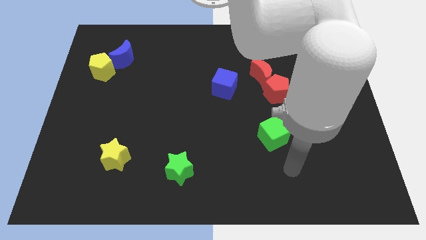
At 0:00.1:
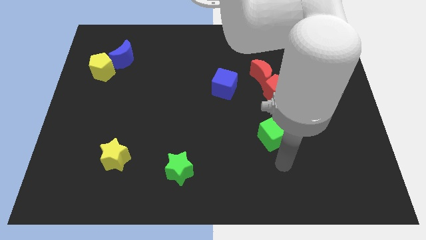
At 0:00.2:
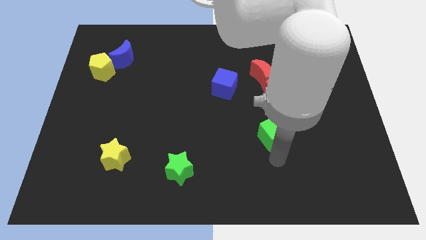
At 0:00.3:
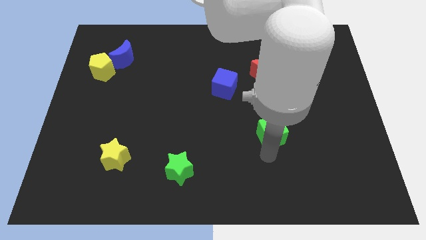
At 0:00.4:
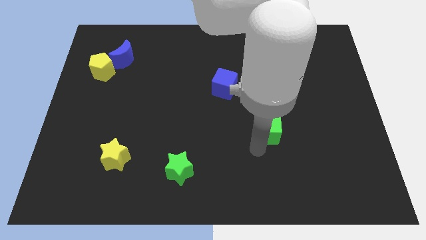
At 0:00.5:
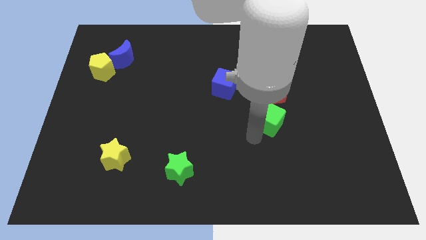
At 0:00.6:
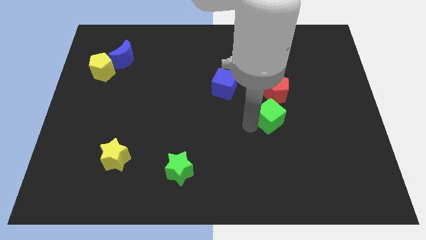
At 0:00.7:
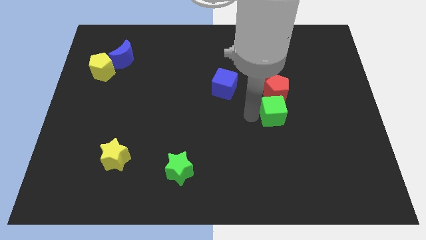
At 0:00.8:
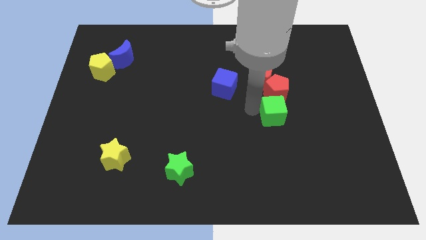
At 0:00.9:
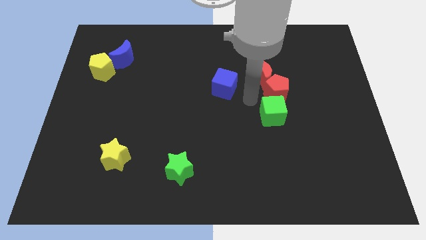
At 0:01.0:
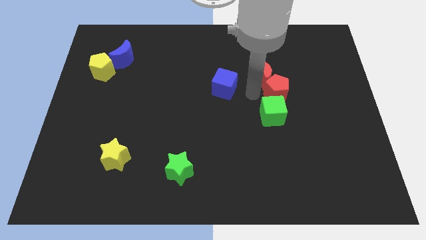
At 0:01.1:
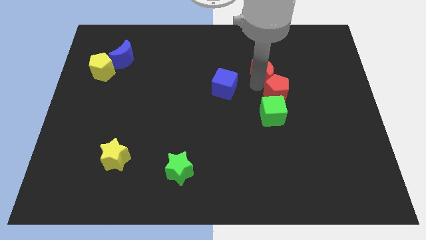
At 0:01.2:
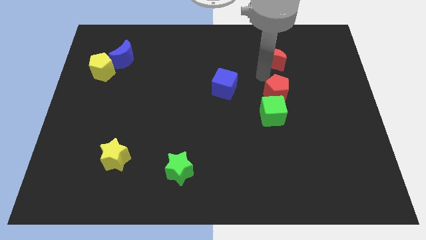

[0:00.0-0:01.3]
move the red pentagon away from the red moon

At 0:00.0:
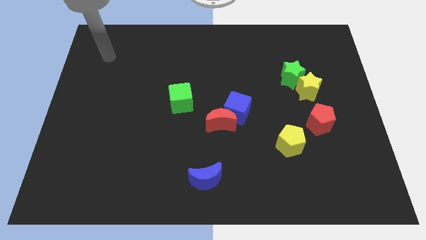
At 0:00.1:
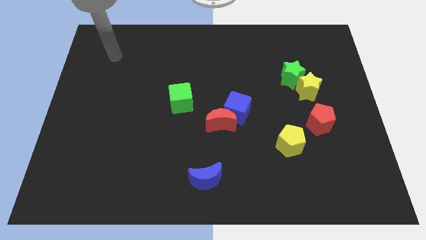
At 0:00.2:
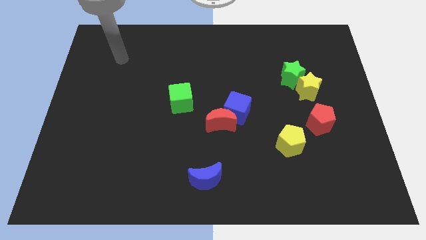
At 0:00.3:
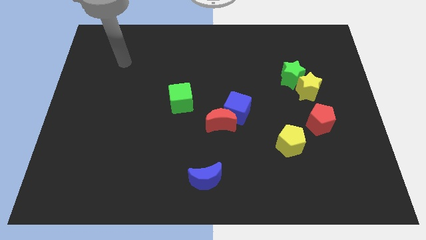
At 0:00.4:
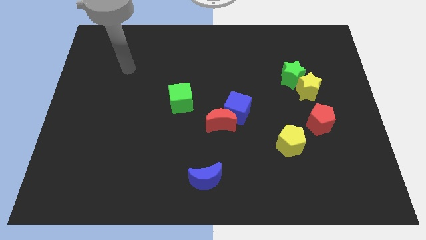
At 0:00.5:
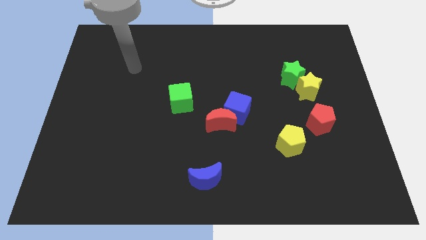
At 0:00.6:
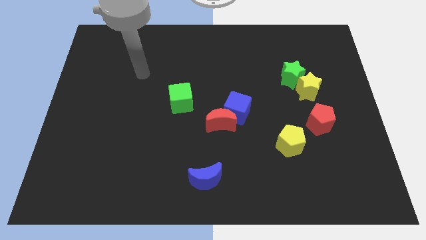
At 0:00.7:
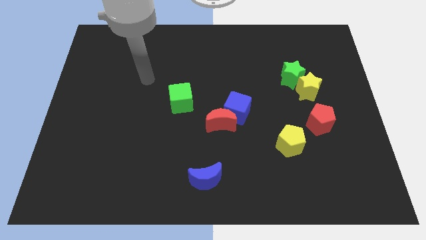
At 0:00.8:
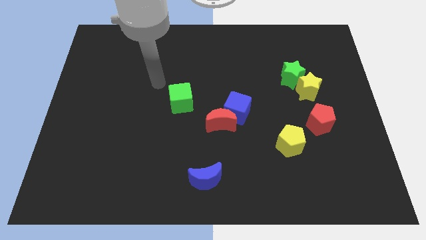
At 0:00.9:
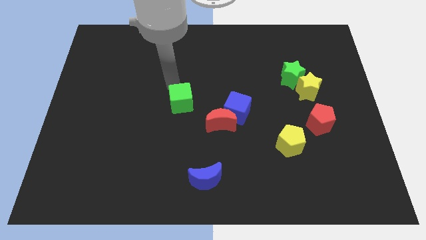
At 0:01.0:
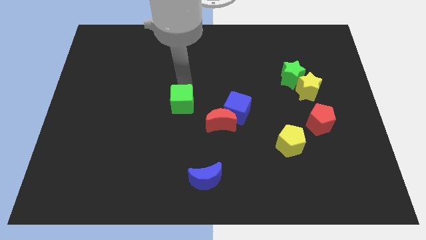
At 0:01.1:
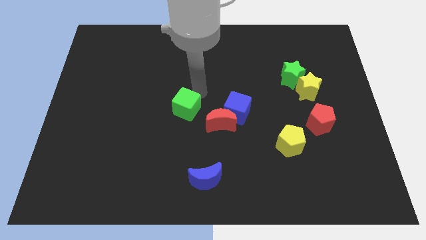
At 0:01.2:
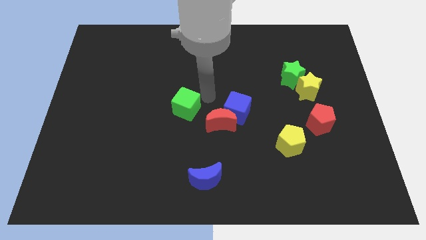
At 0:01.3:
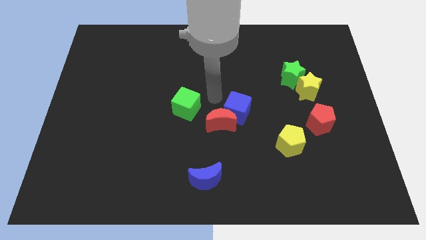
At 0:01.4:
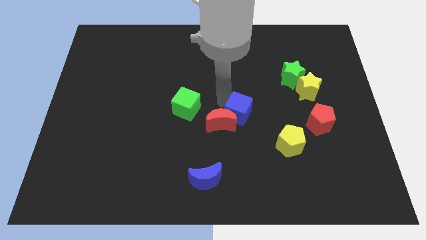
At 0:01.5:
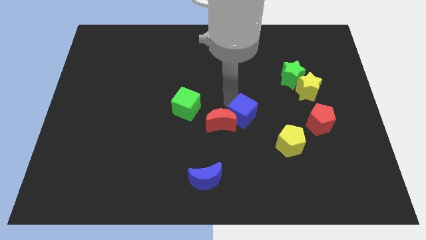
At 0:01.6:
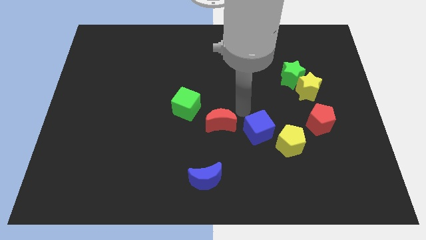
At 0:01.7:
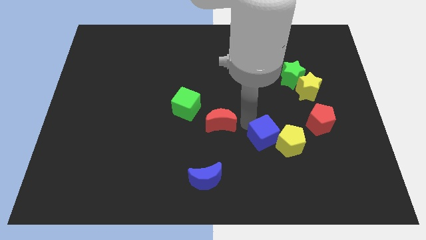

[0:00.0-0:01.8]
move the red moon away from the blue cube

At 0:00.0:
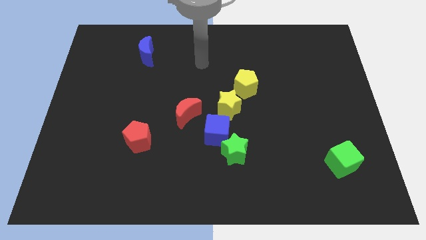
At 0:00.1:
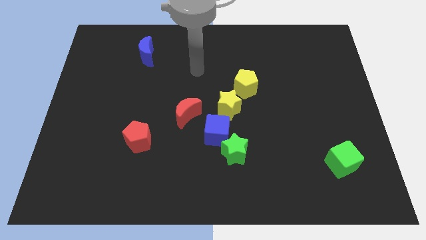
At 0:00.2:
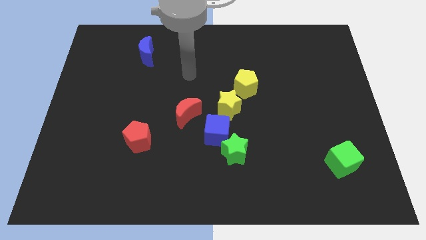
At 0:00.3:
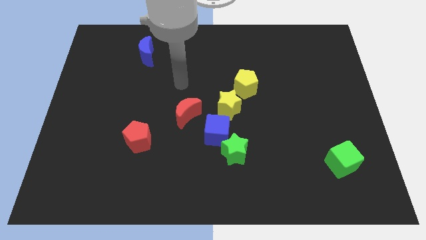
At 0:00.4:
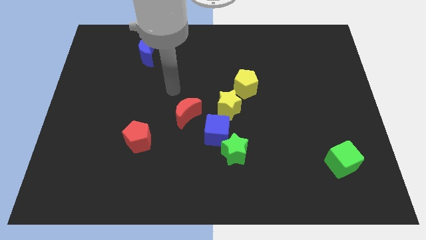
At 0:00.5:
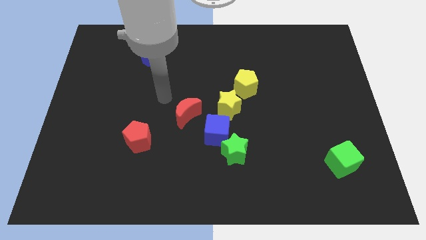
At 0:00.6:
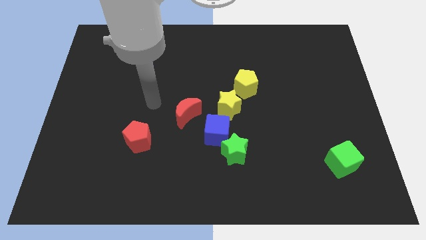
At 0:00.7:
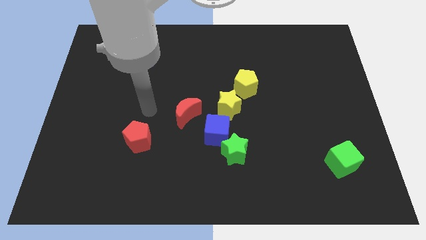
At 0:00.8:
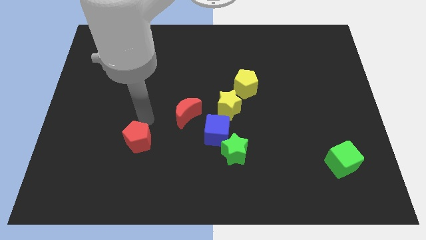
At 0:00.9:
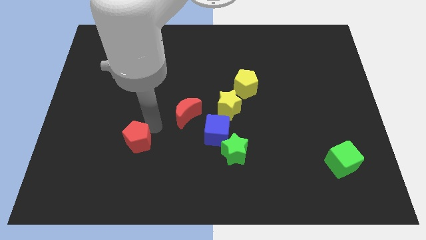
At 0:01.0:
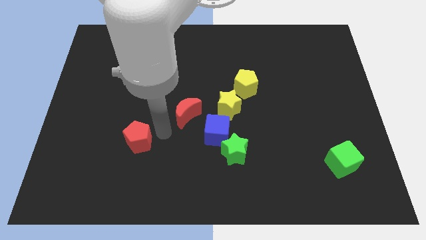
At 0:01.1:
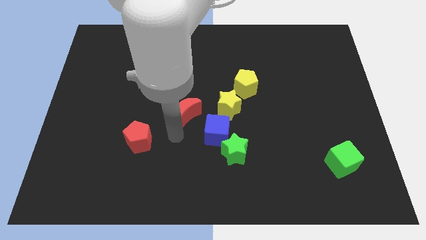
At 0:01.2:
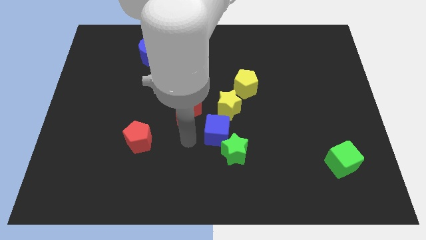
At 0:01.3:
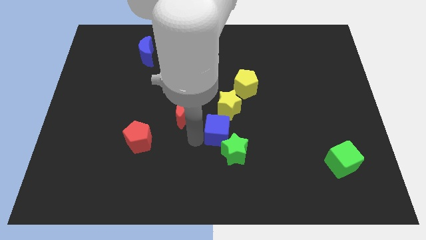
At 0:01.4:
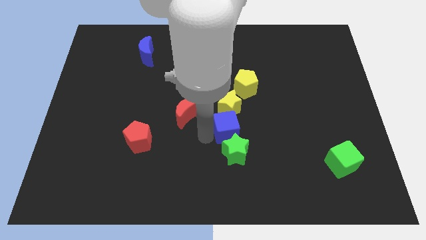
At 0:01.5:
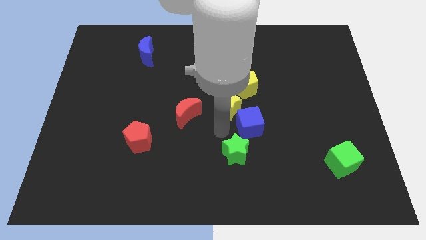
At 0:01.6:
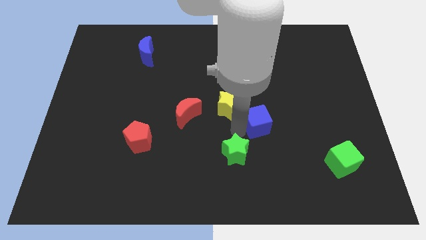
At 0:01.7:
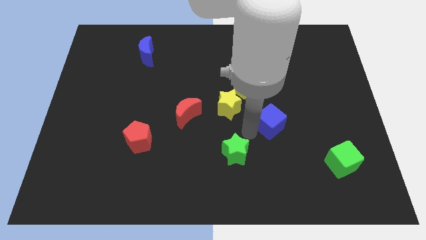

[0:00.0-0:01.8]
separate the green star from the blue cube

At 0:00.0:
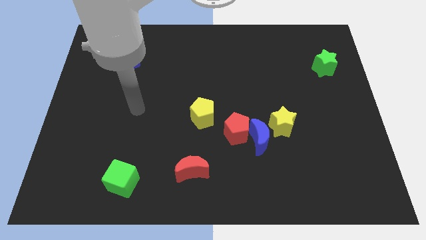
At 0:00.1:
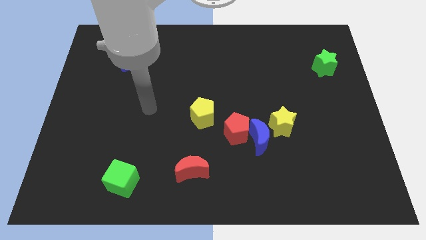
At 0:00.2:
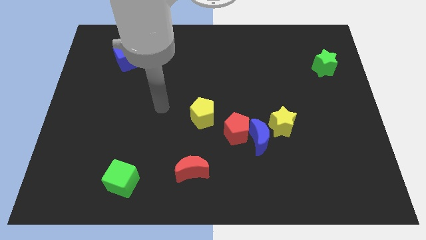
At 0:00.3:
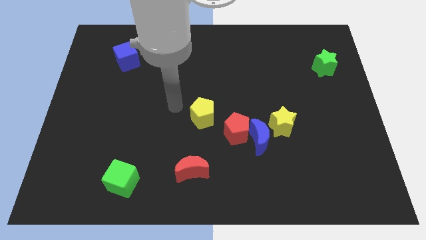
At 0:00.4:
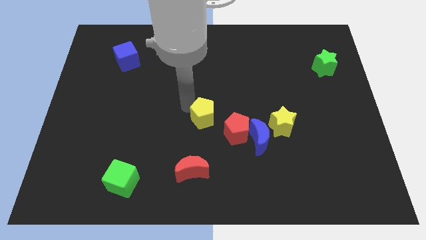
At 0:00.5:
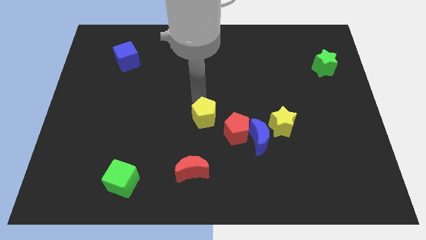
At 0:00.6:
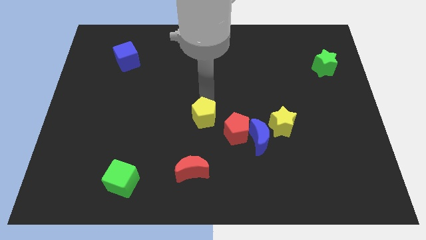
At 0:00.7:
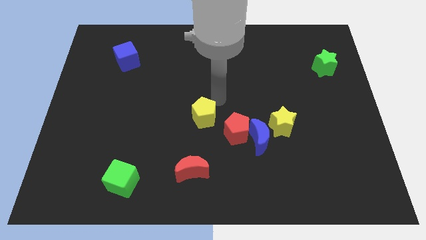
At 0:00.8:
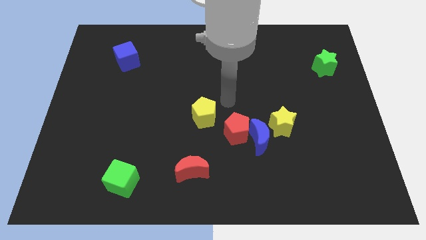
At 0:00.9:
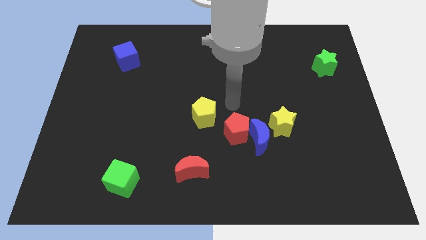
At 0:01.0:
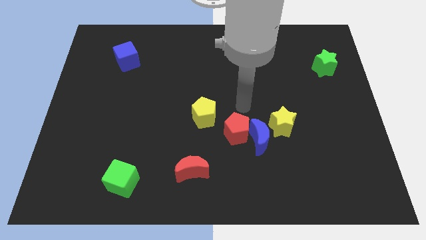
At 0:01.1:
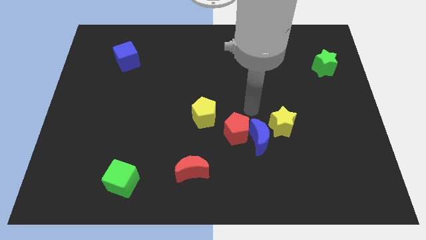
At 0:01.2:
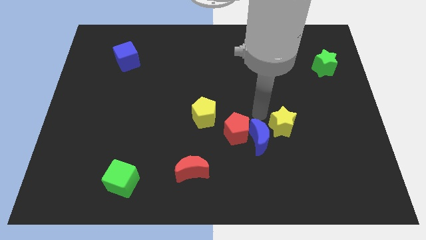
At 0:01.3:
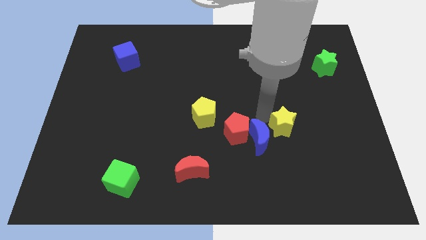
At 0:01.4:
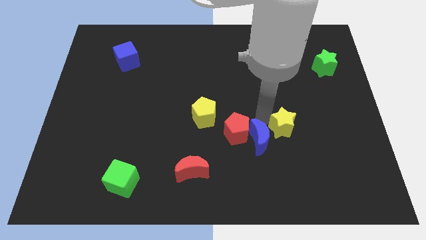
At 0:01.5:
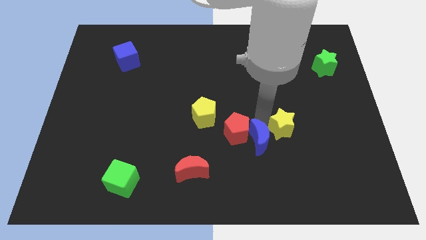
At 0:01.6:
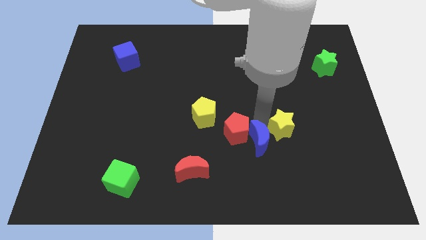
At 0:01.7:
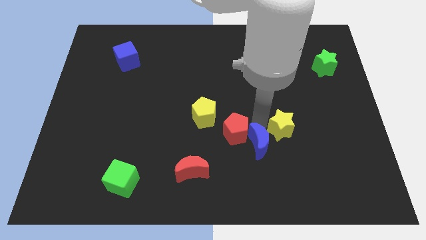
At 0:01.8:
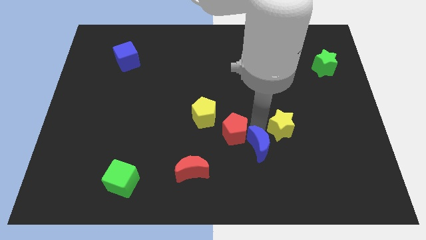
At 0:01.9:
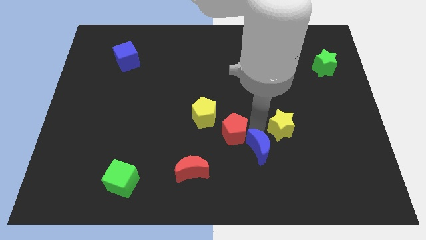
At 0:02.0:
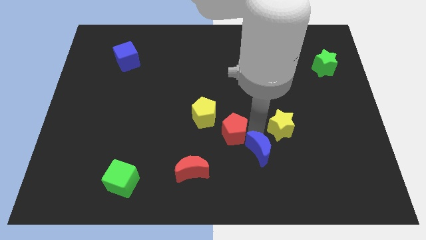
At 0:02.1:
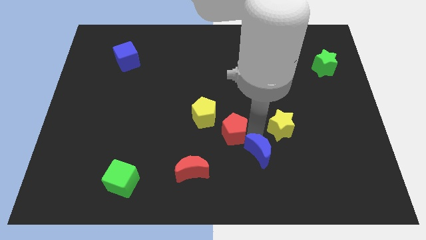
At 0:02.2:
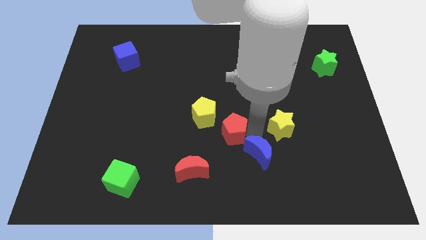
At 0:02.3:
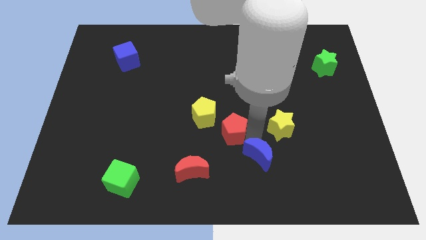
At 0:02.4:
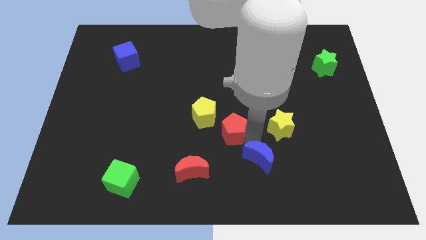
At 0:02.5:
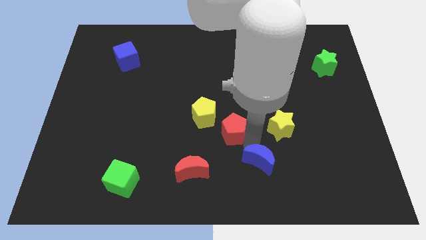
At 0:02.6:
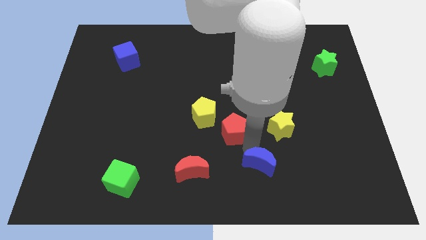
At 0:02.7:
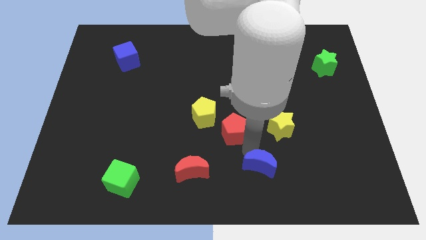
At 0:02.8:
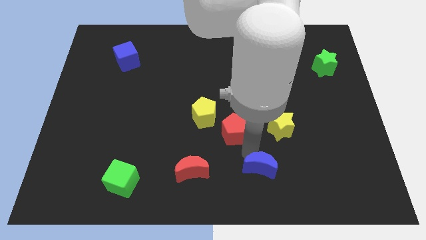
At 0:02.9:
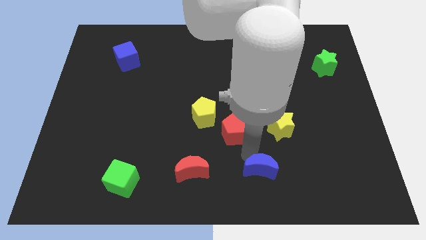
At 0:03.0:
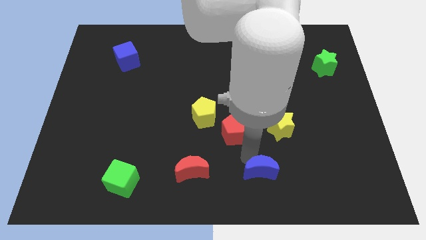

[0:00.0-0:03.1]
move the blue moon away from the red pentagon and yellow star

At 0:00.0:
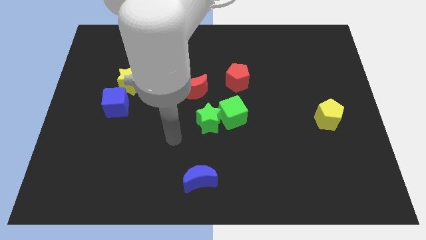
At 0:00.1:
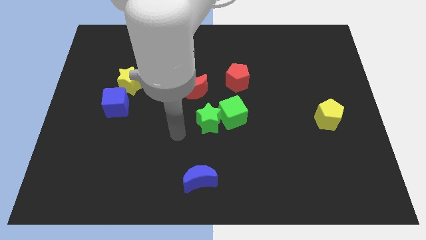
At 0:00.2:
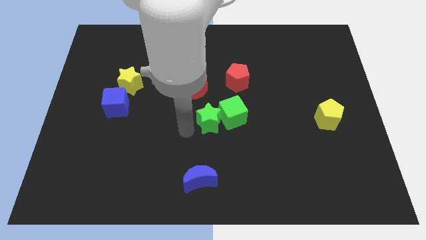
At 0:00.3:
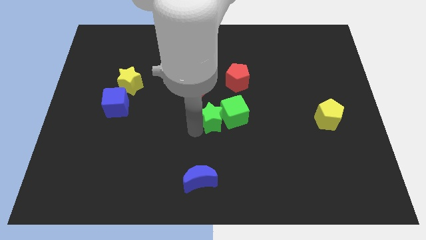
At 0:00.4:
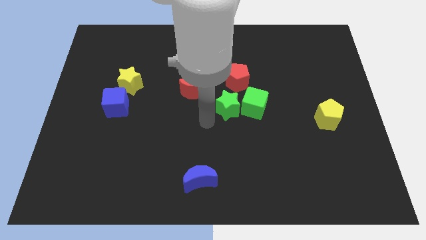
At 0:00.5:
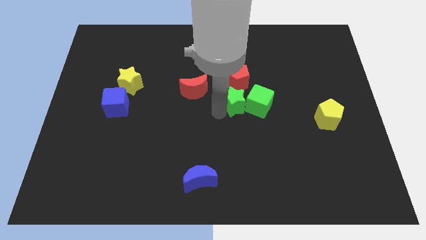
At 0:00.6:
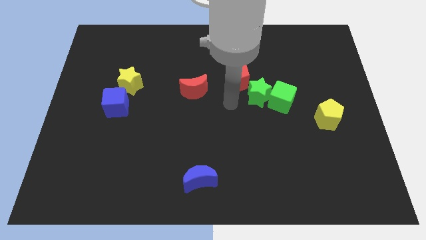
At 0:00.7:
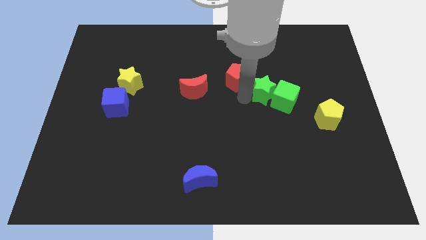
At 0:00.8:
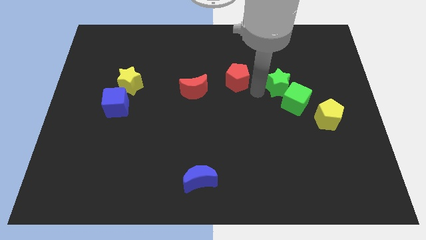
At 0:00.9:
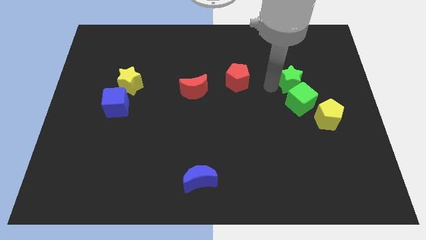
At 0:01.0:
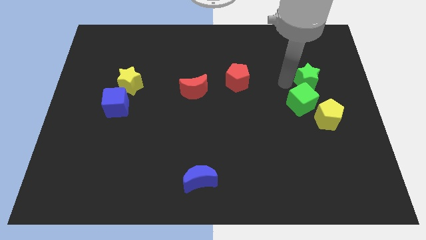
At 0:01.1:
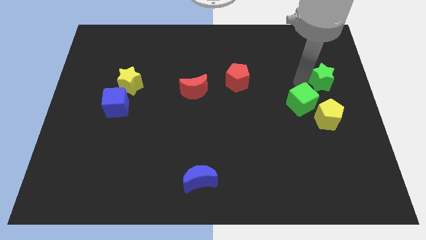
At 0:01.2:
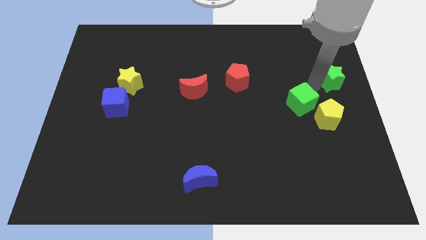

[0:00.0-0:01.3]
separate the green cube from the green star
